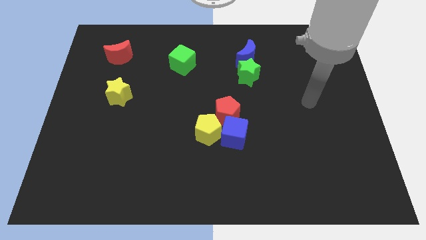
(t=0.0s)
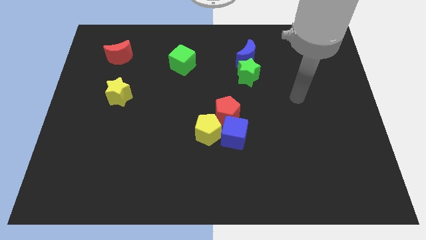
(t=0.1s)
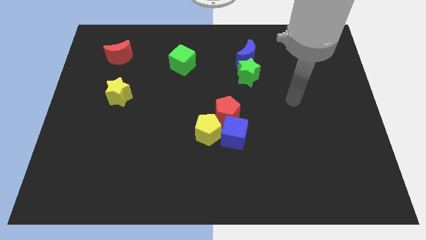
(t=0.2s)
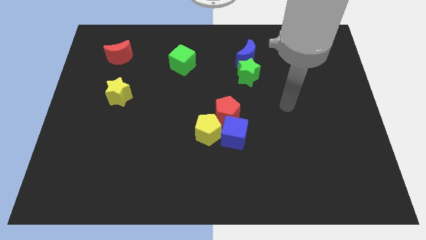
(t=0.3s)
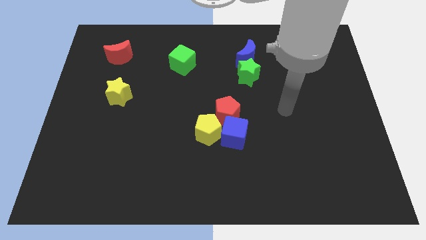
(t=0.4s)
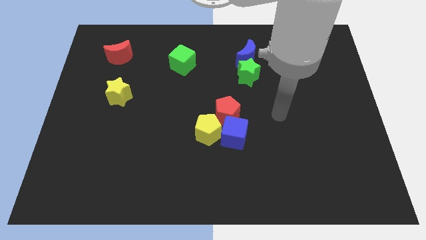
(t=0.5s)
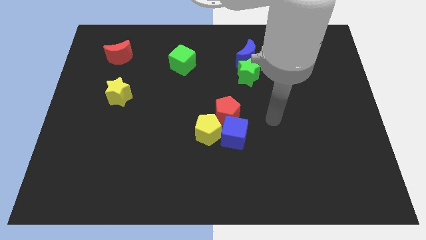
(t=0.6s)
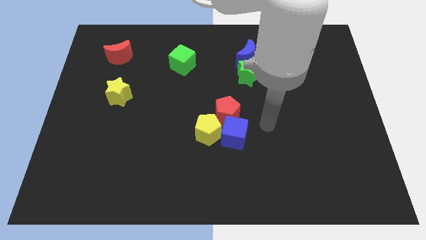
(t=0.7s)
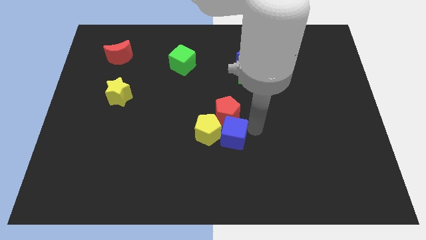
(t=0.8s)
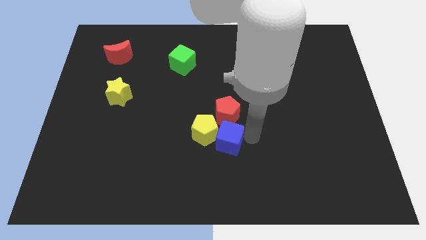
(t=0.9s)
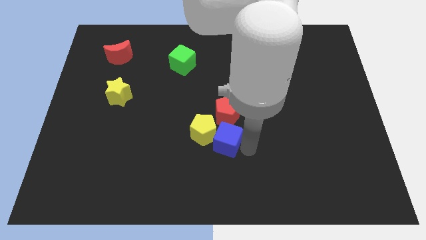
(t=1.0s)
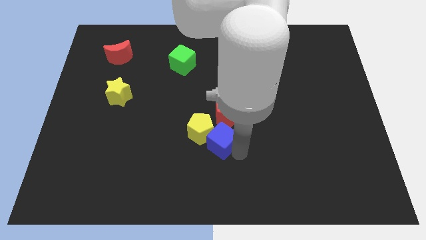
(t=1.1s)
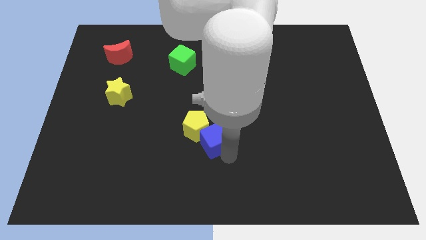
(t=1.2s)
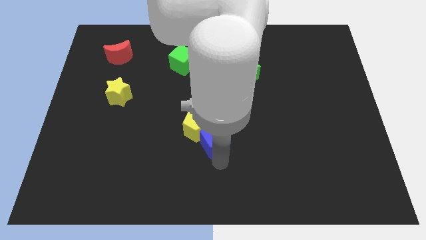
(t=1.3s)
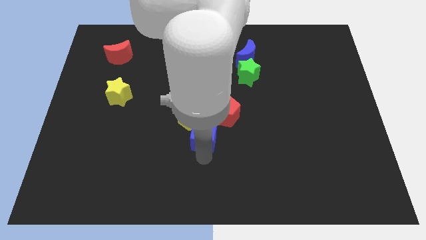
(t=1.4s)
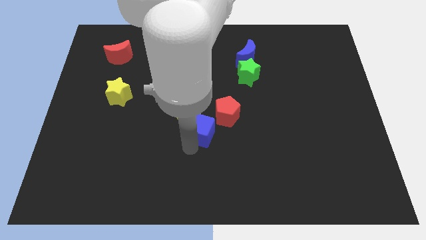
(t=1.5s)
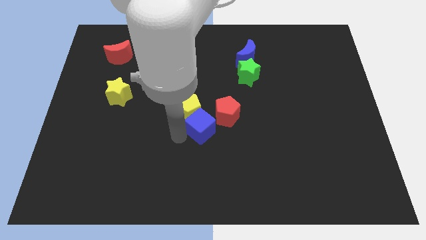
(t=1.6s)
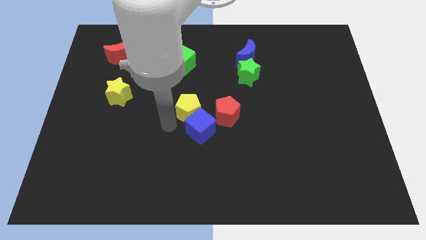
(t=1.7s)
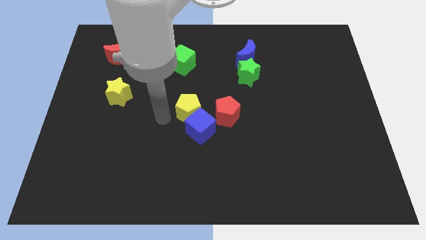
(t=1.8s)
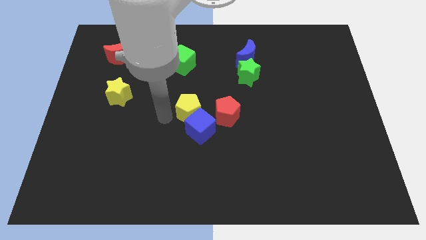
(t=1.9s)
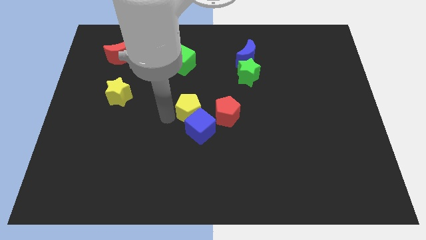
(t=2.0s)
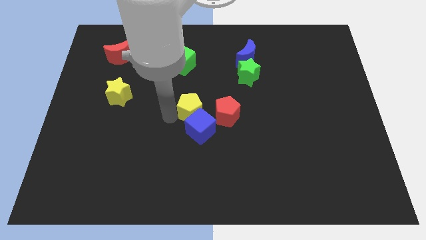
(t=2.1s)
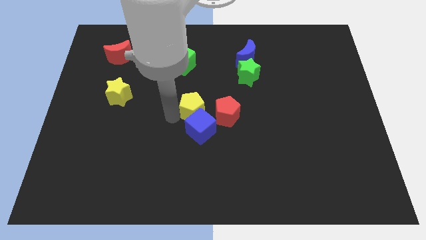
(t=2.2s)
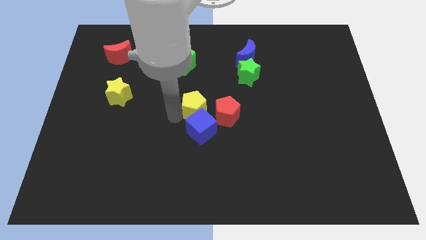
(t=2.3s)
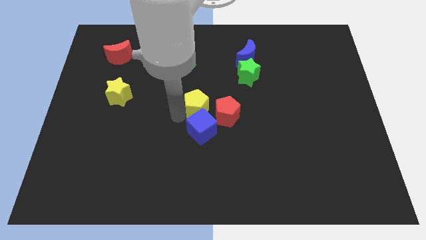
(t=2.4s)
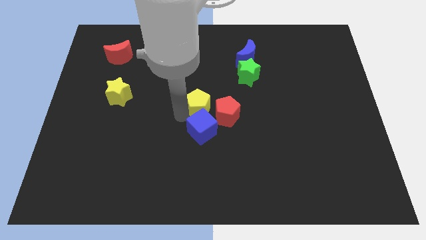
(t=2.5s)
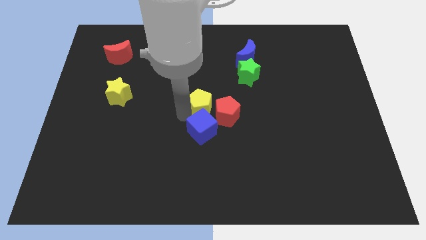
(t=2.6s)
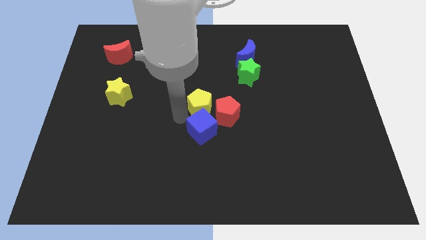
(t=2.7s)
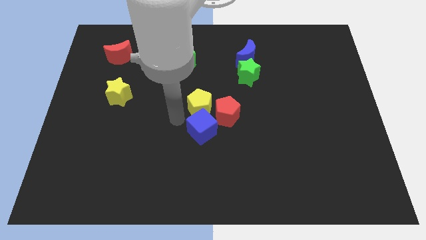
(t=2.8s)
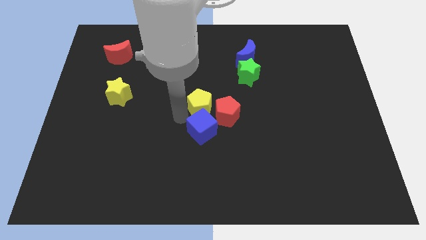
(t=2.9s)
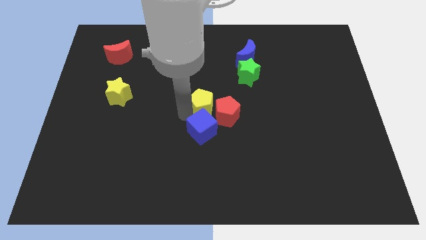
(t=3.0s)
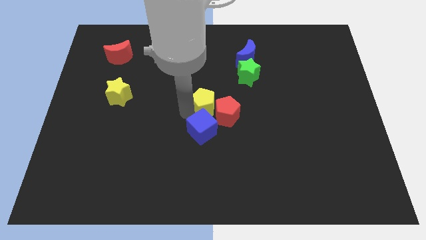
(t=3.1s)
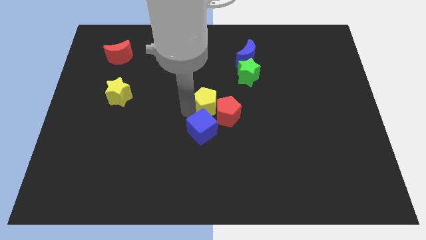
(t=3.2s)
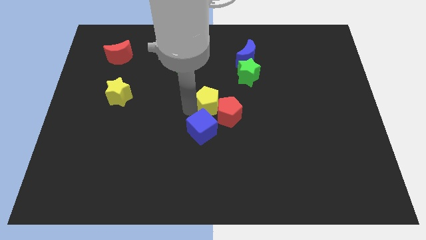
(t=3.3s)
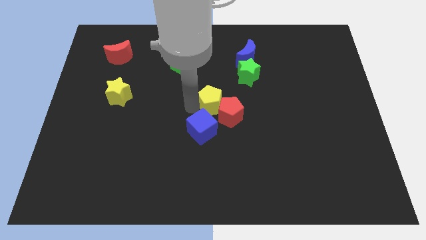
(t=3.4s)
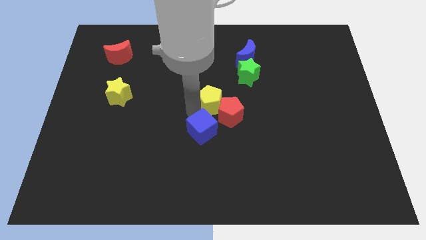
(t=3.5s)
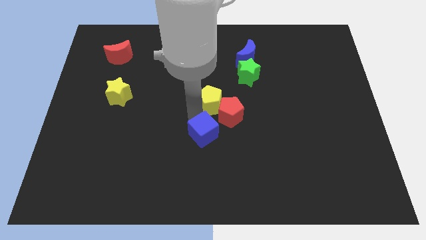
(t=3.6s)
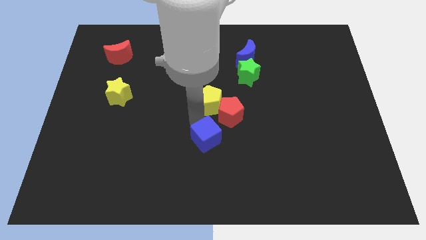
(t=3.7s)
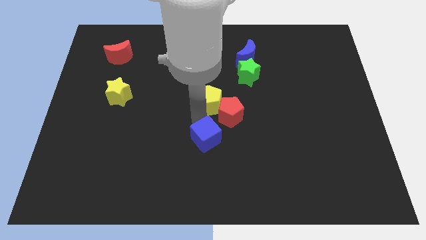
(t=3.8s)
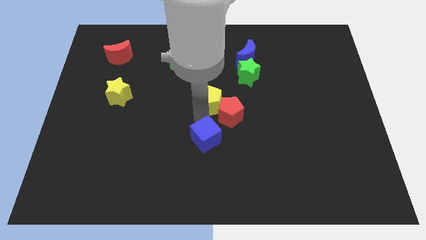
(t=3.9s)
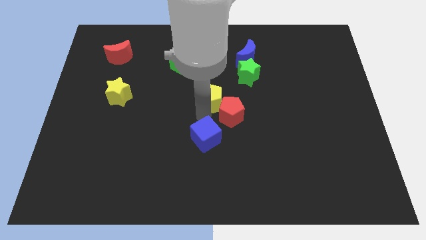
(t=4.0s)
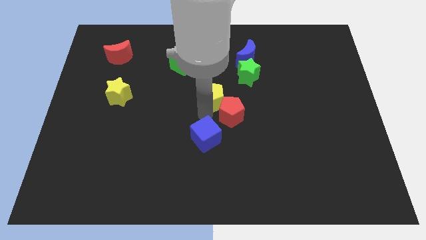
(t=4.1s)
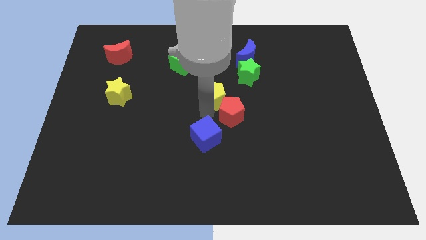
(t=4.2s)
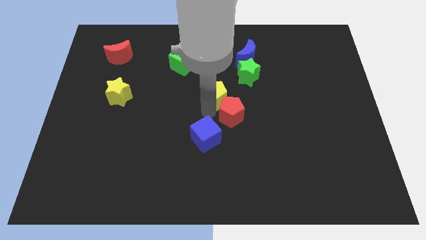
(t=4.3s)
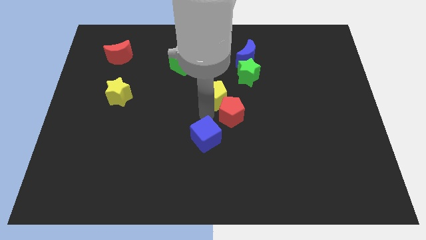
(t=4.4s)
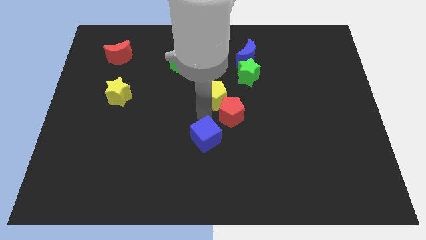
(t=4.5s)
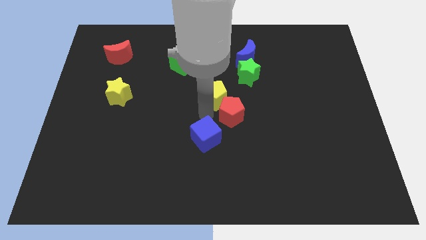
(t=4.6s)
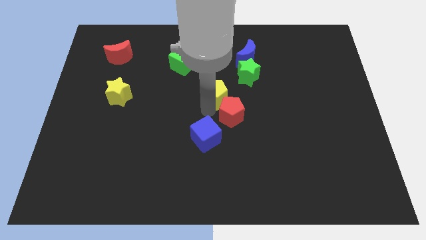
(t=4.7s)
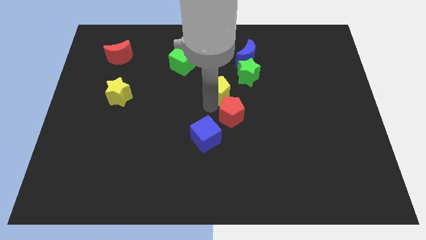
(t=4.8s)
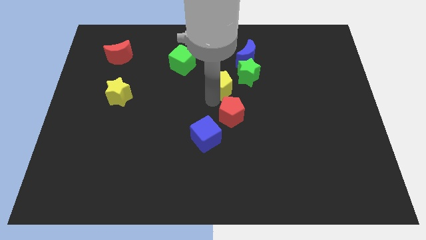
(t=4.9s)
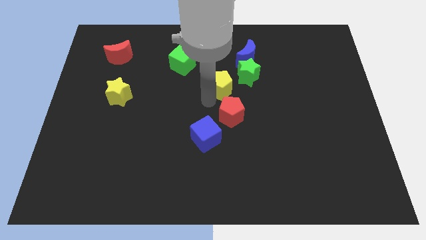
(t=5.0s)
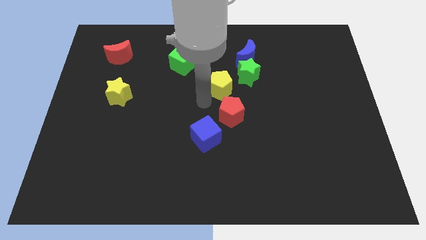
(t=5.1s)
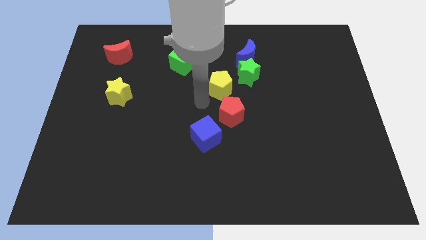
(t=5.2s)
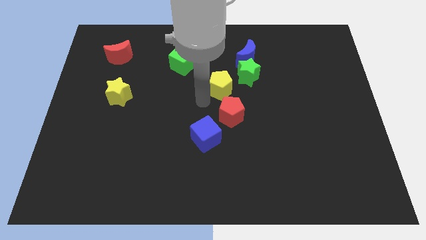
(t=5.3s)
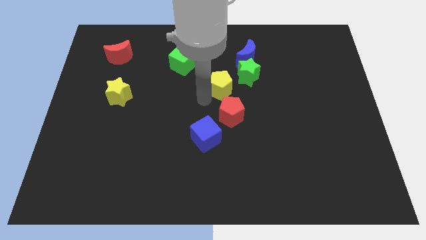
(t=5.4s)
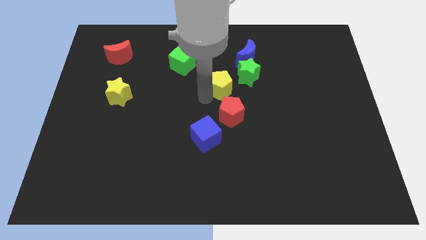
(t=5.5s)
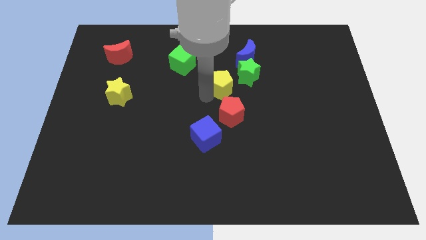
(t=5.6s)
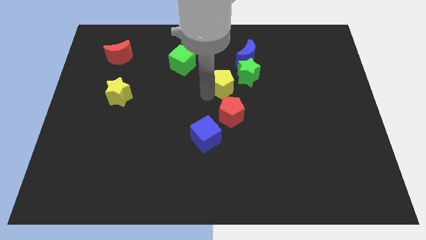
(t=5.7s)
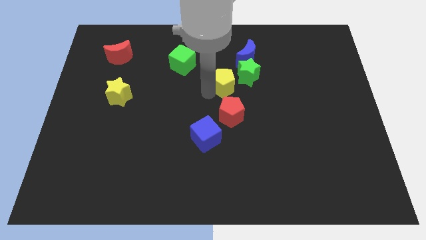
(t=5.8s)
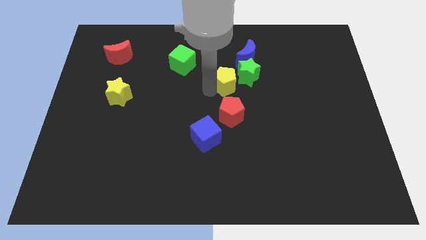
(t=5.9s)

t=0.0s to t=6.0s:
move the yellow pentagon close to the green star
